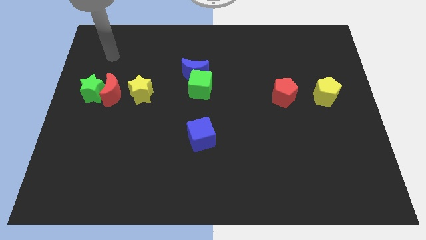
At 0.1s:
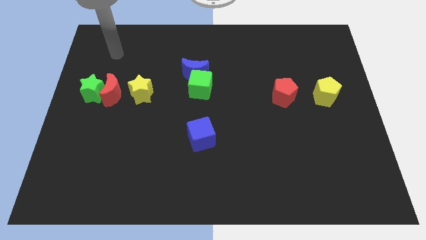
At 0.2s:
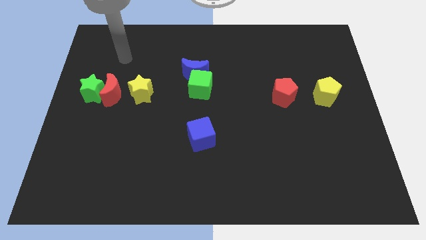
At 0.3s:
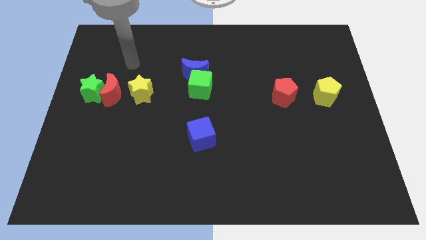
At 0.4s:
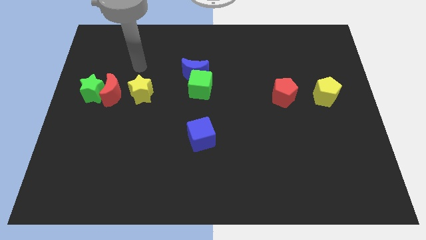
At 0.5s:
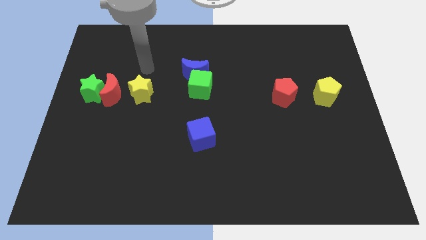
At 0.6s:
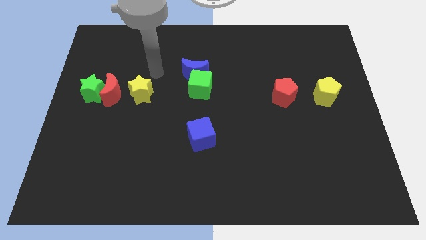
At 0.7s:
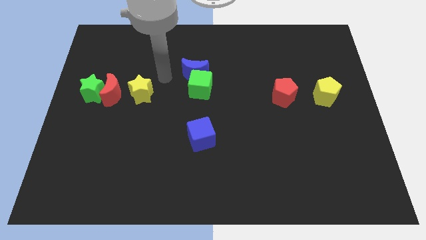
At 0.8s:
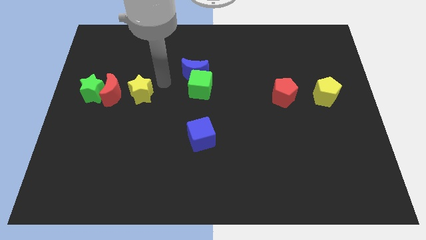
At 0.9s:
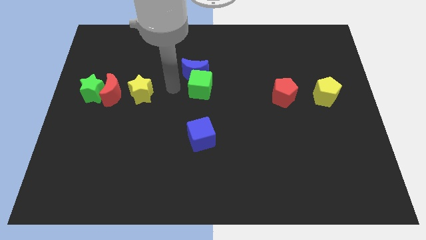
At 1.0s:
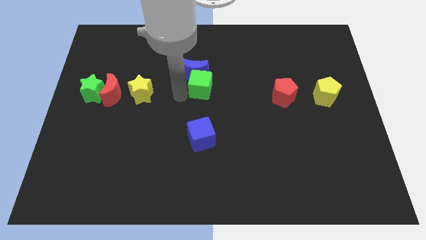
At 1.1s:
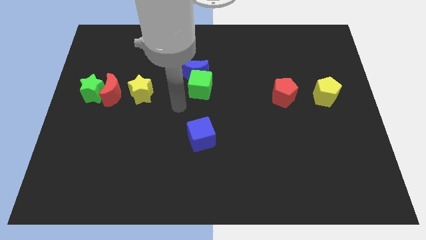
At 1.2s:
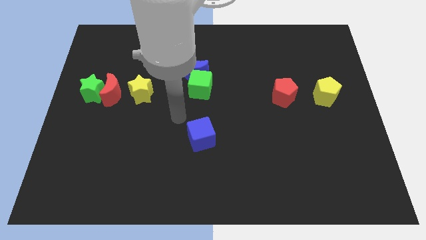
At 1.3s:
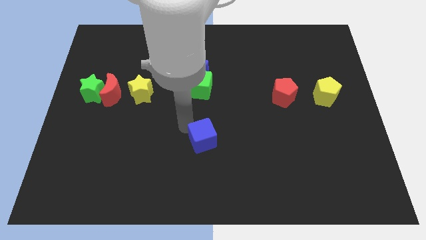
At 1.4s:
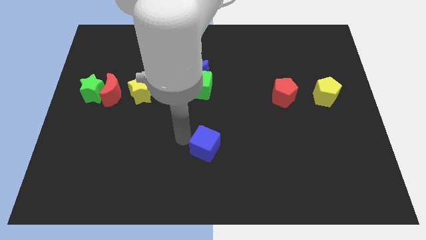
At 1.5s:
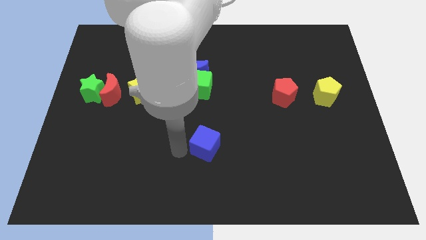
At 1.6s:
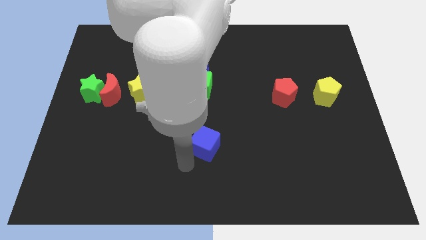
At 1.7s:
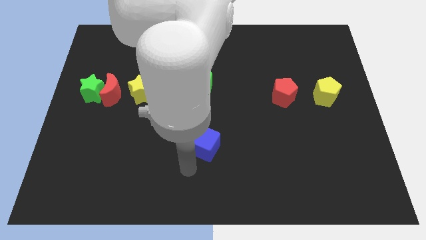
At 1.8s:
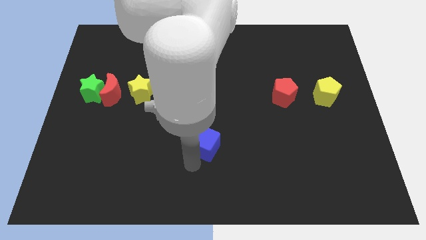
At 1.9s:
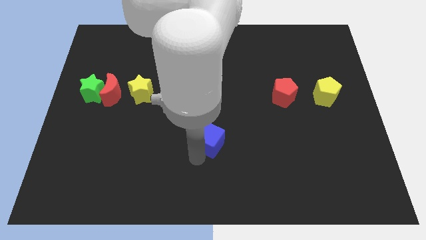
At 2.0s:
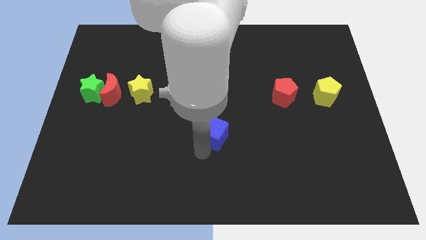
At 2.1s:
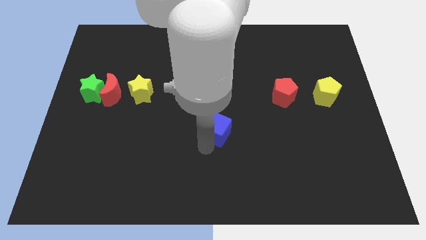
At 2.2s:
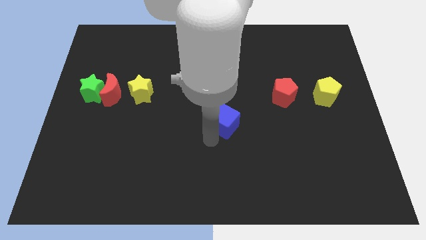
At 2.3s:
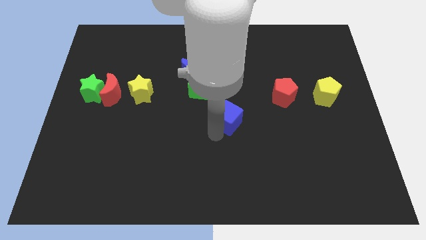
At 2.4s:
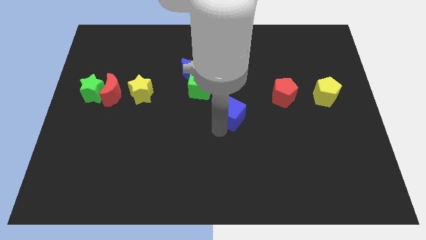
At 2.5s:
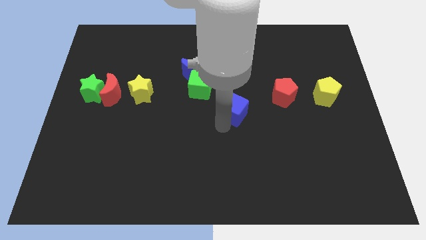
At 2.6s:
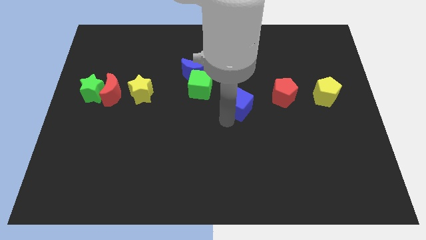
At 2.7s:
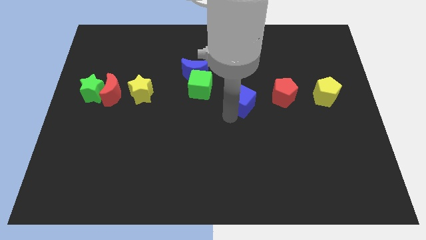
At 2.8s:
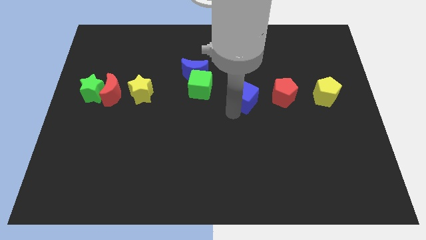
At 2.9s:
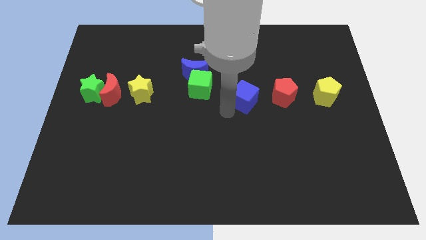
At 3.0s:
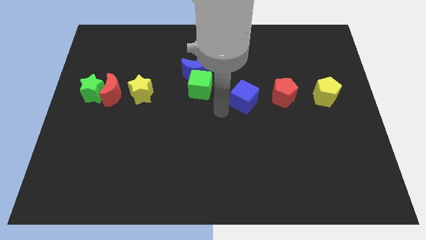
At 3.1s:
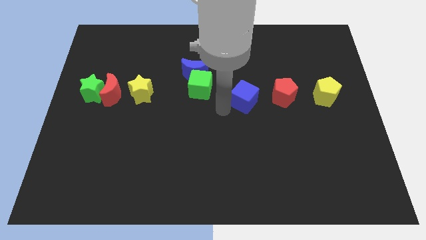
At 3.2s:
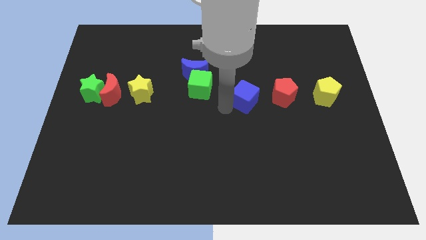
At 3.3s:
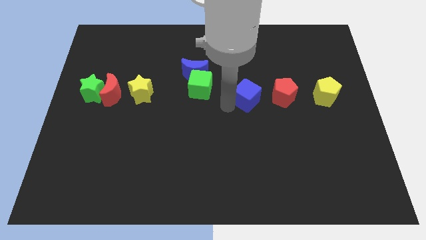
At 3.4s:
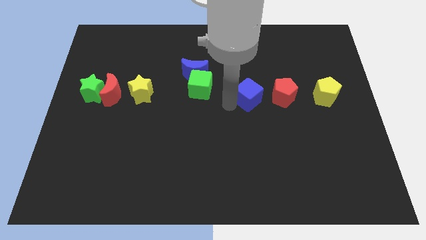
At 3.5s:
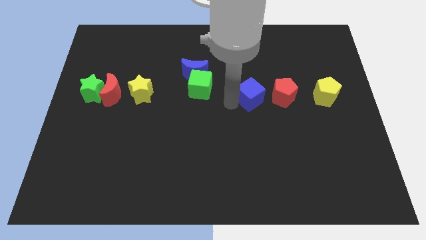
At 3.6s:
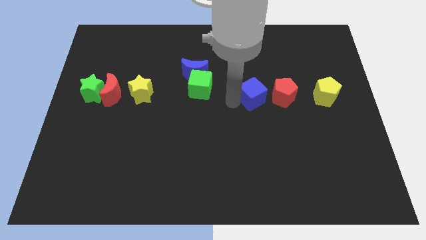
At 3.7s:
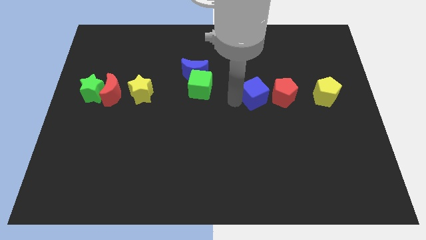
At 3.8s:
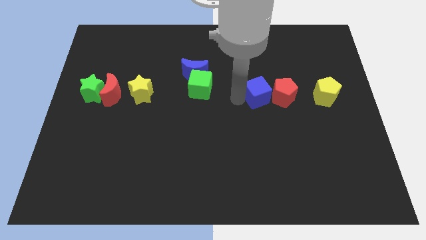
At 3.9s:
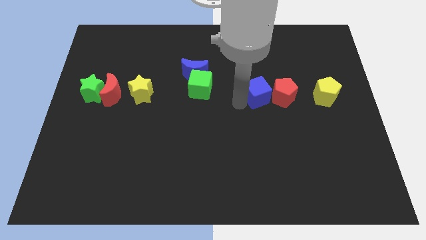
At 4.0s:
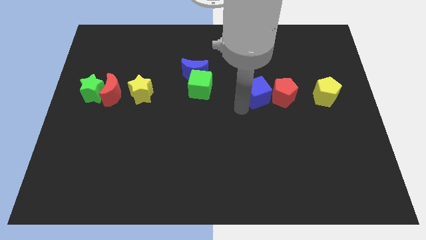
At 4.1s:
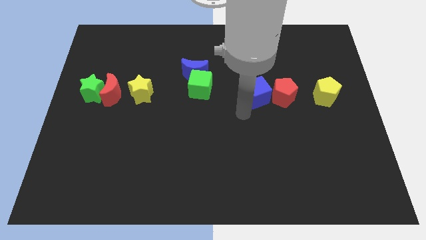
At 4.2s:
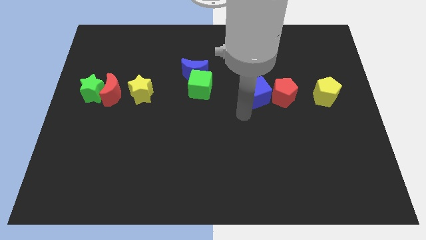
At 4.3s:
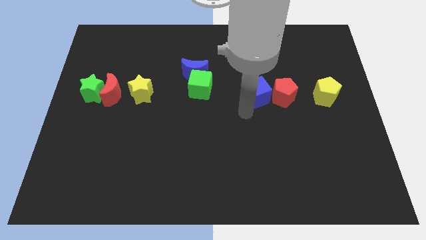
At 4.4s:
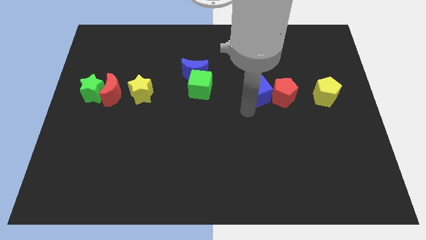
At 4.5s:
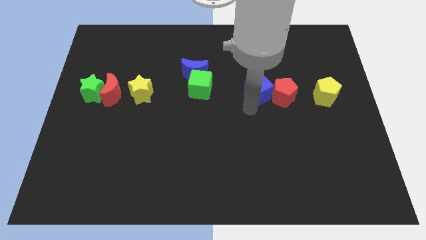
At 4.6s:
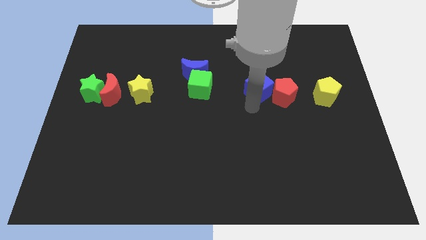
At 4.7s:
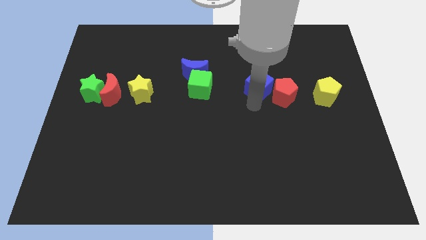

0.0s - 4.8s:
push the blue cube diagonally up and right

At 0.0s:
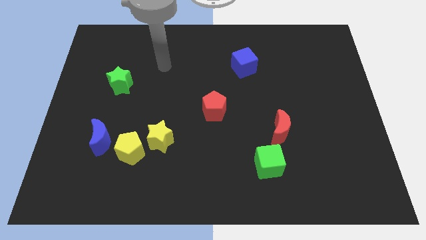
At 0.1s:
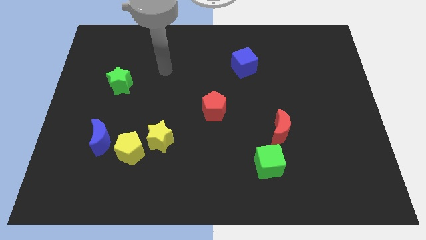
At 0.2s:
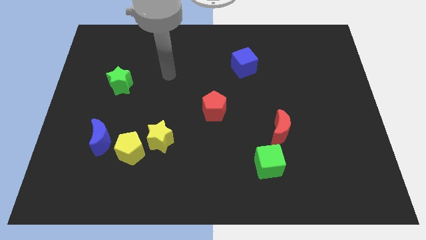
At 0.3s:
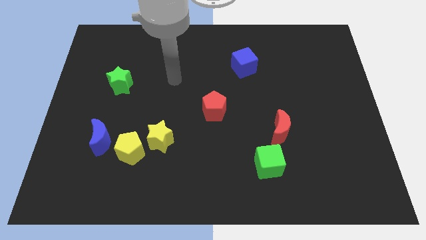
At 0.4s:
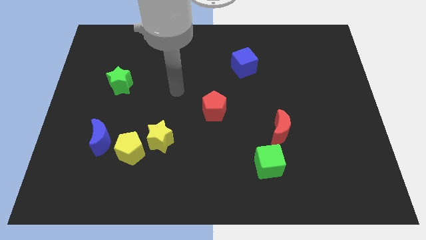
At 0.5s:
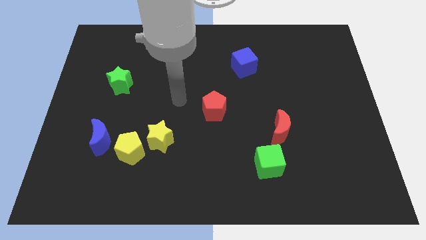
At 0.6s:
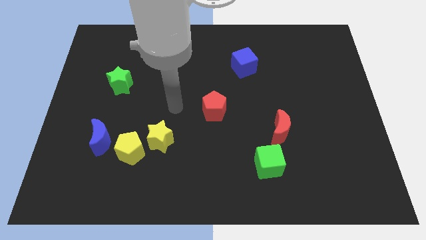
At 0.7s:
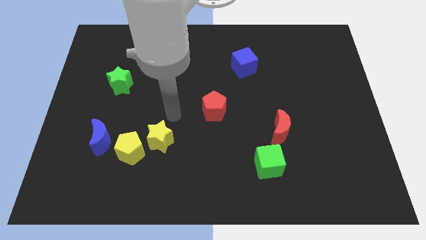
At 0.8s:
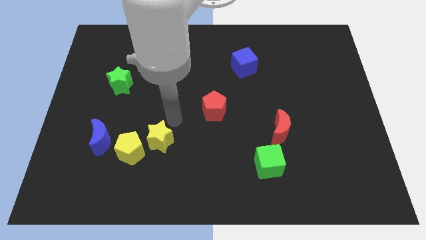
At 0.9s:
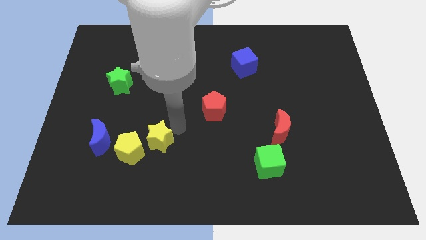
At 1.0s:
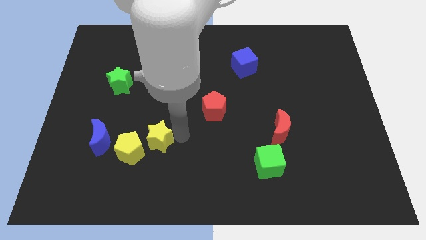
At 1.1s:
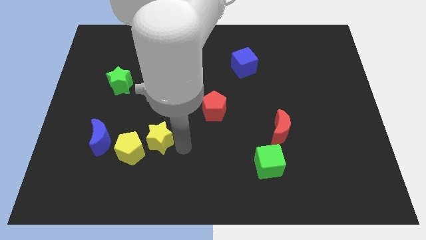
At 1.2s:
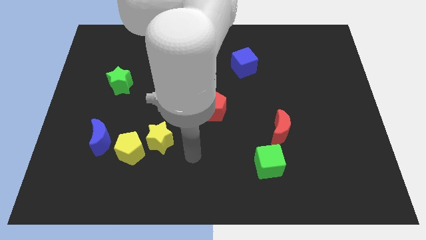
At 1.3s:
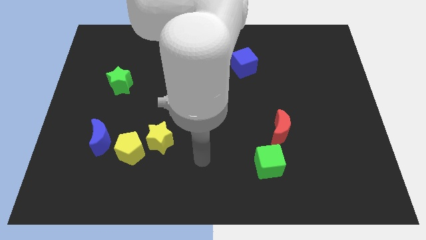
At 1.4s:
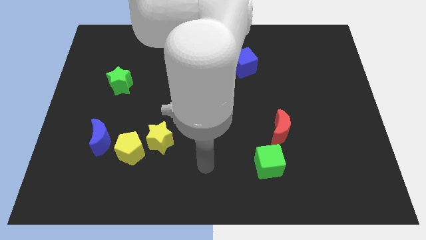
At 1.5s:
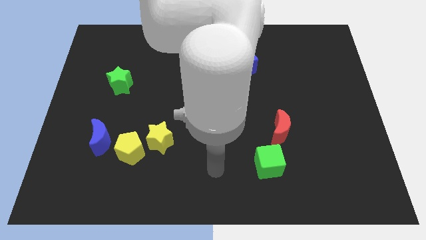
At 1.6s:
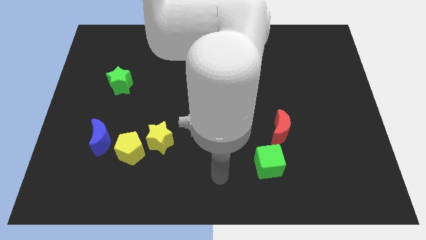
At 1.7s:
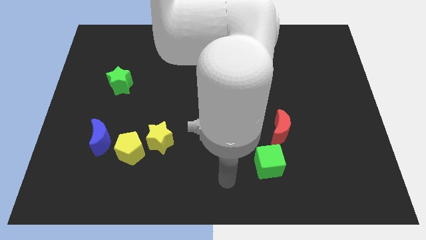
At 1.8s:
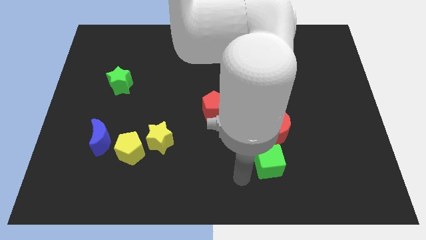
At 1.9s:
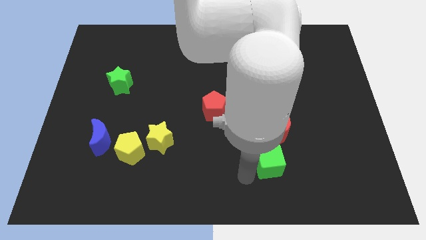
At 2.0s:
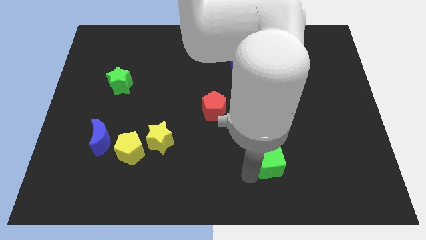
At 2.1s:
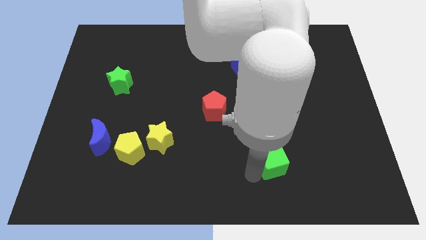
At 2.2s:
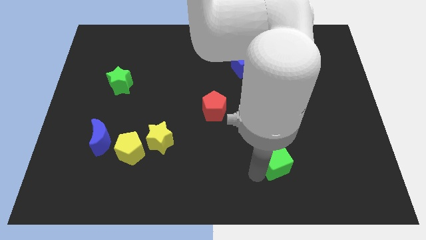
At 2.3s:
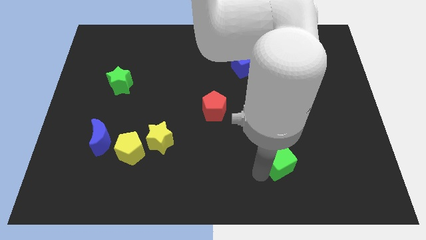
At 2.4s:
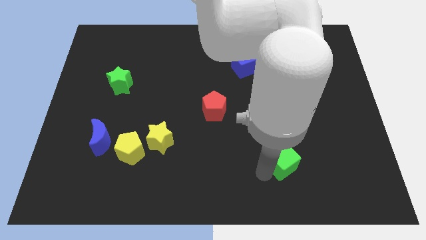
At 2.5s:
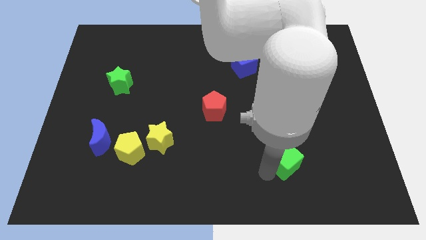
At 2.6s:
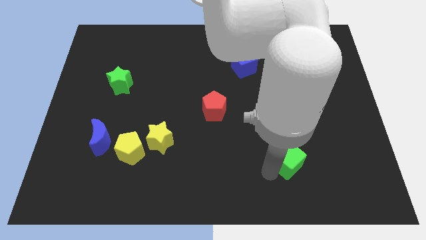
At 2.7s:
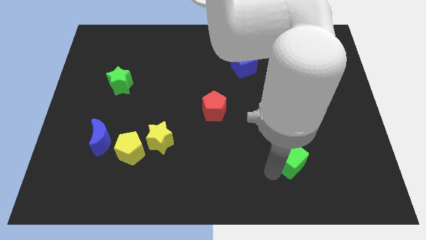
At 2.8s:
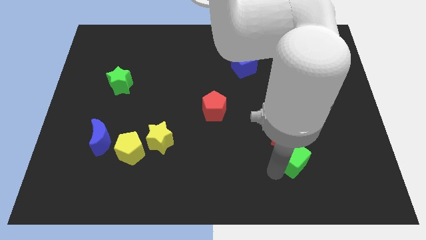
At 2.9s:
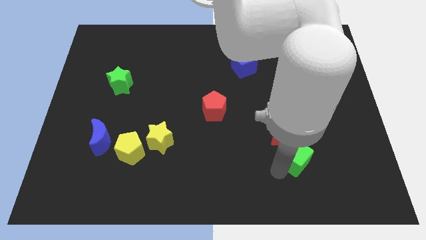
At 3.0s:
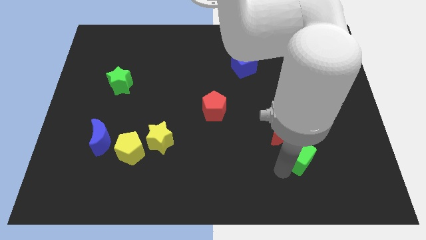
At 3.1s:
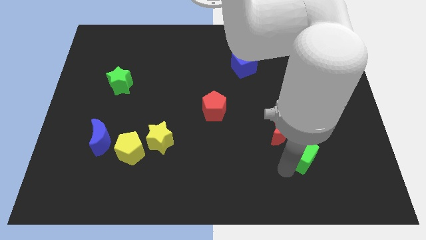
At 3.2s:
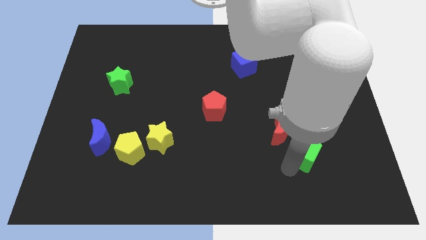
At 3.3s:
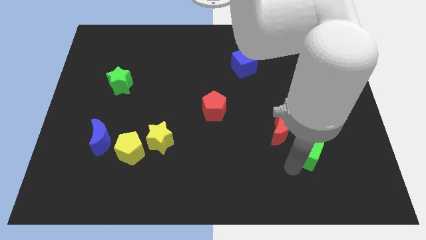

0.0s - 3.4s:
slightly slide the green cube upwards and right diagonally
